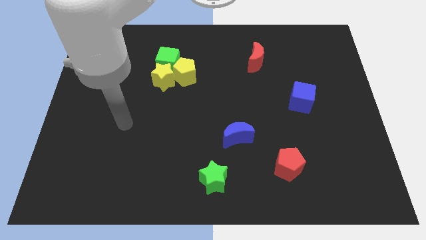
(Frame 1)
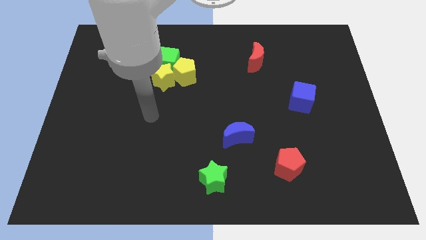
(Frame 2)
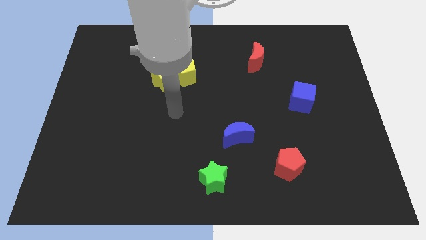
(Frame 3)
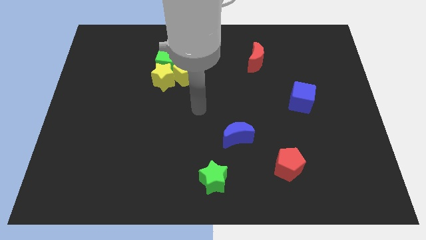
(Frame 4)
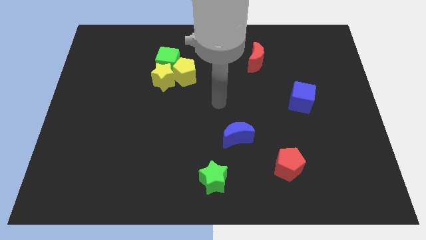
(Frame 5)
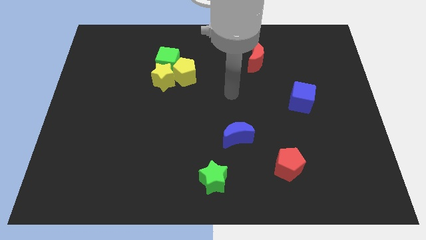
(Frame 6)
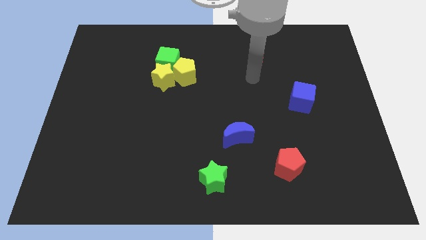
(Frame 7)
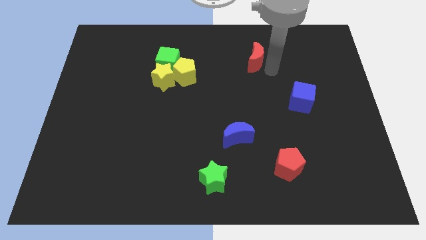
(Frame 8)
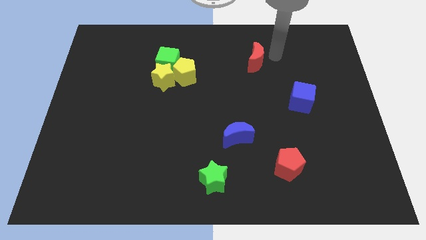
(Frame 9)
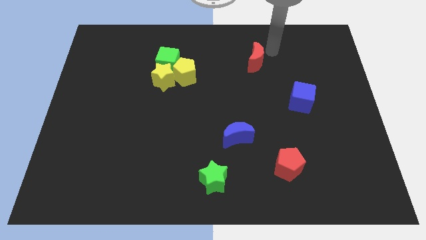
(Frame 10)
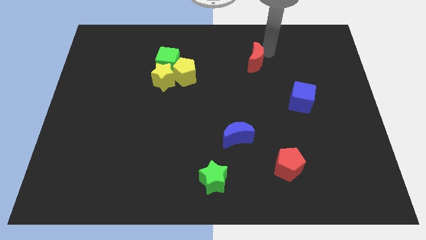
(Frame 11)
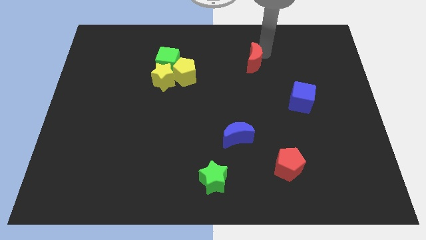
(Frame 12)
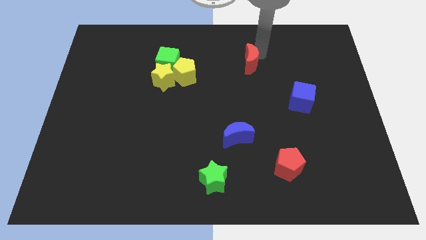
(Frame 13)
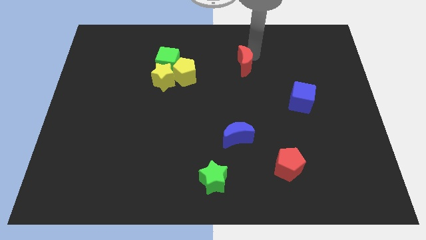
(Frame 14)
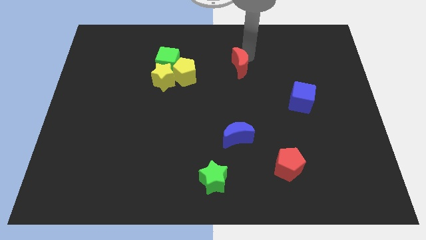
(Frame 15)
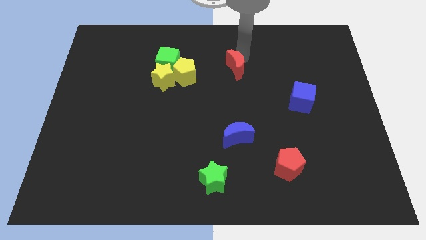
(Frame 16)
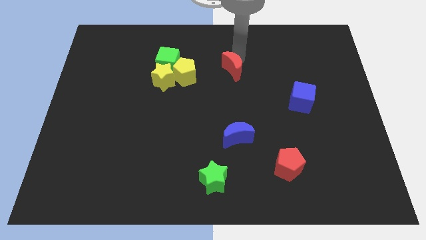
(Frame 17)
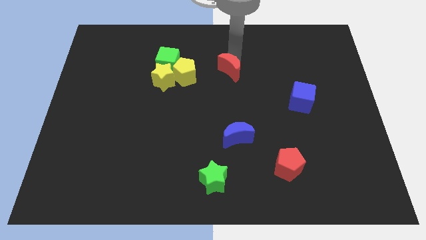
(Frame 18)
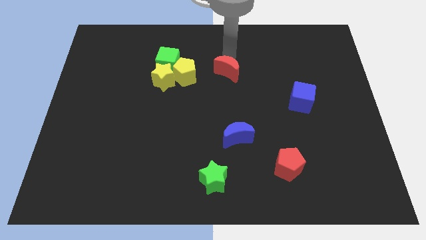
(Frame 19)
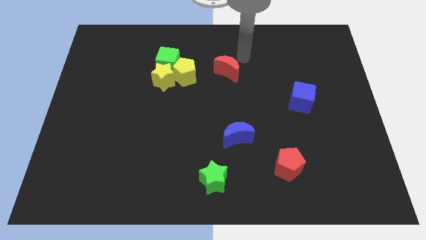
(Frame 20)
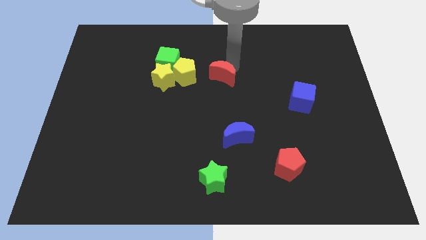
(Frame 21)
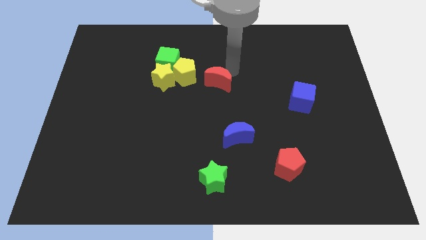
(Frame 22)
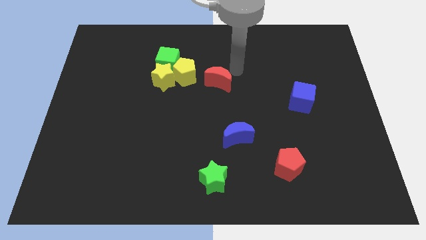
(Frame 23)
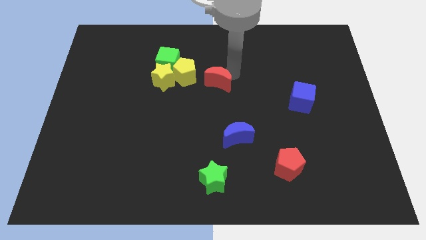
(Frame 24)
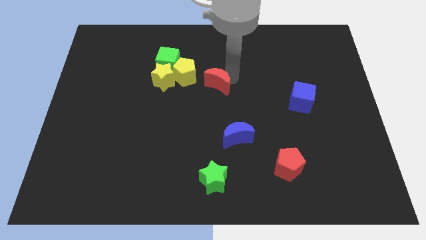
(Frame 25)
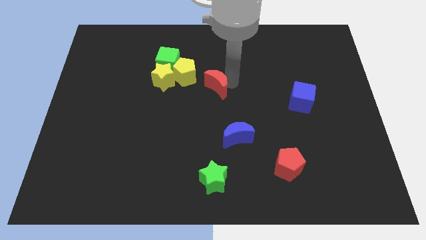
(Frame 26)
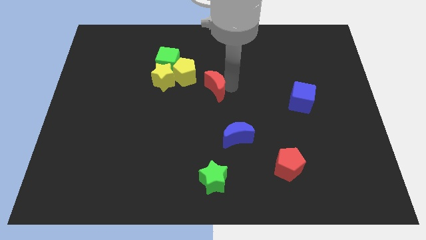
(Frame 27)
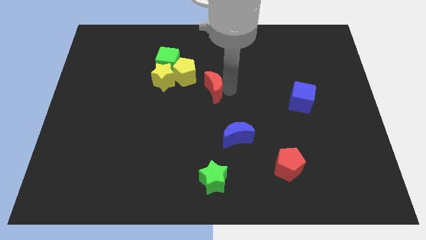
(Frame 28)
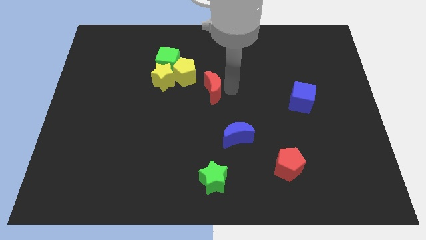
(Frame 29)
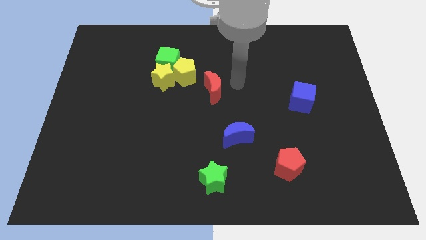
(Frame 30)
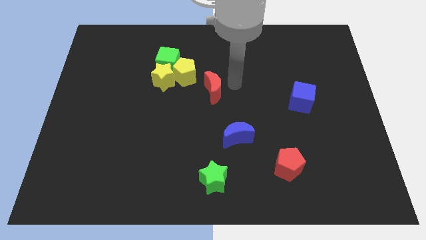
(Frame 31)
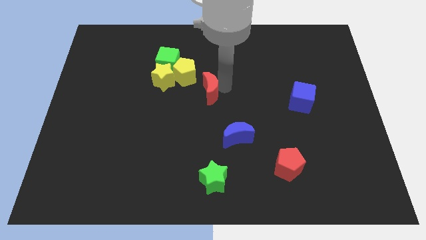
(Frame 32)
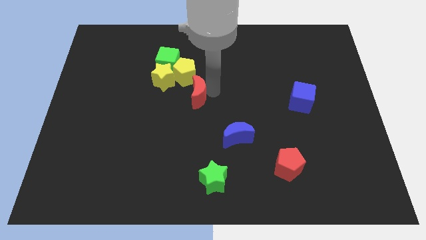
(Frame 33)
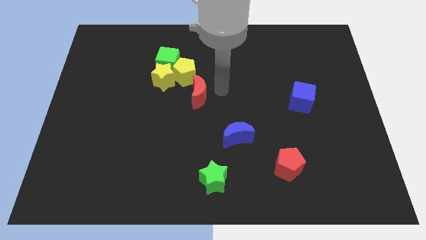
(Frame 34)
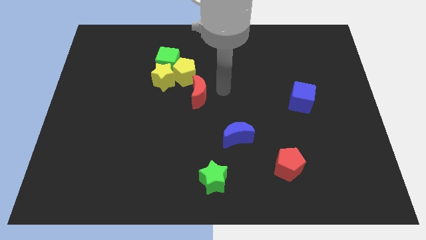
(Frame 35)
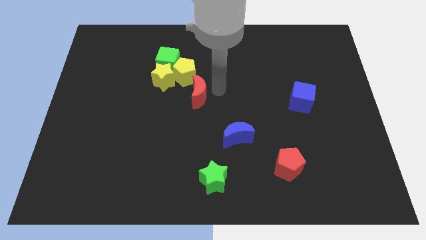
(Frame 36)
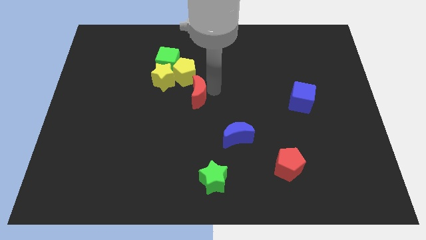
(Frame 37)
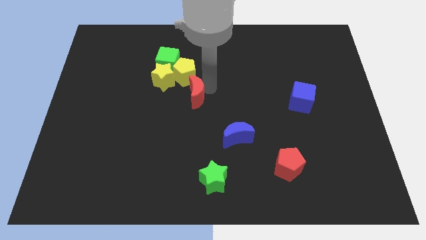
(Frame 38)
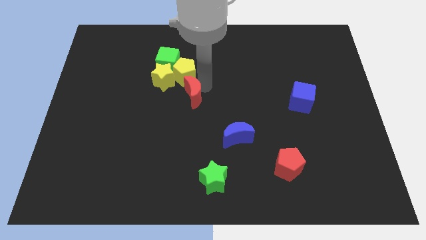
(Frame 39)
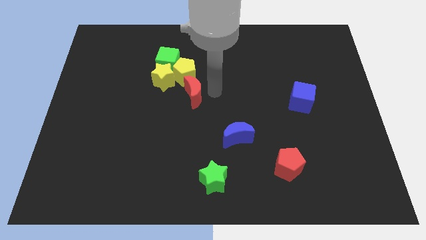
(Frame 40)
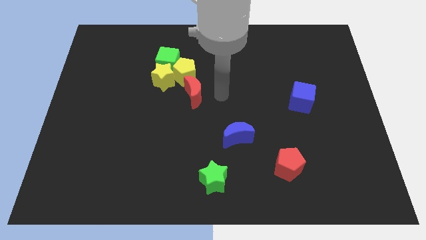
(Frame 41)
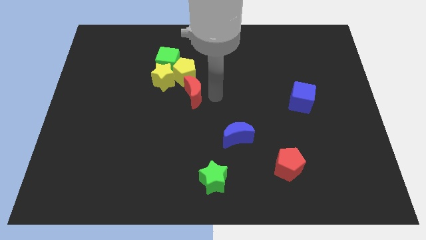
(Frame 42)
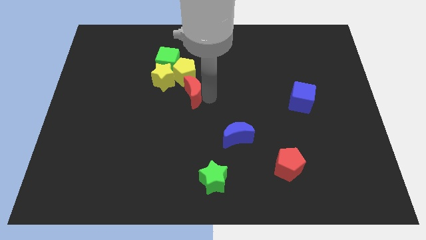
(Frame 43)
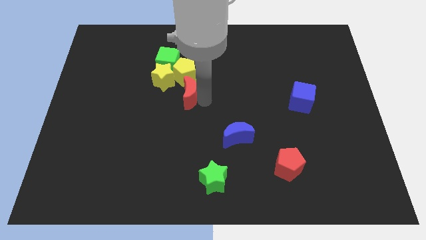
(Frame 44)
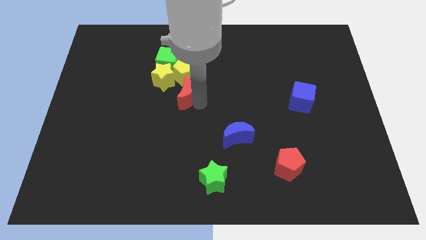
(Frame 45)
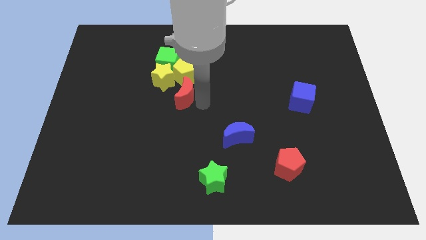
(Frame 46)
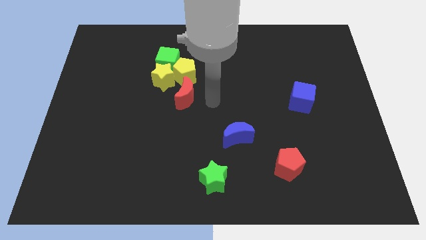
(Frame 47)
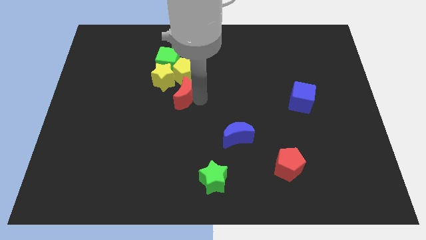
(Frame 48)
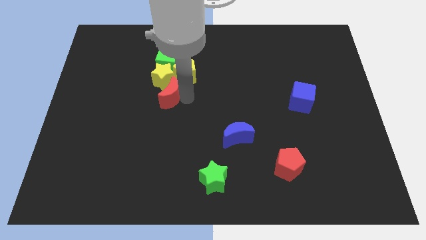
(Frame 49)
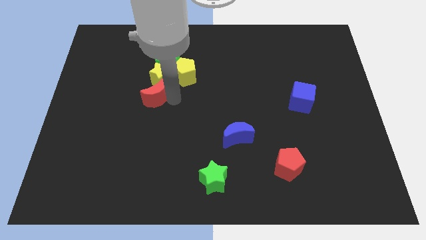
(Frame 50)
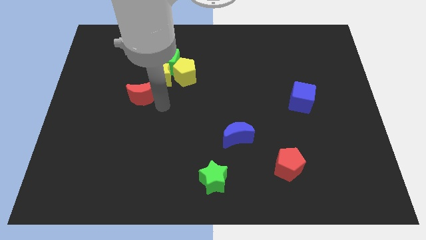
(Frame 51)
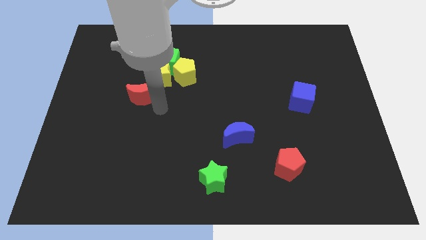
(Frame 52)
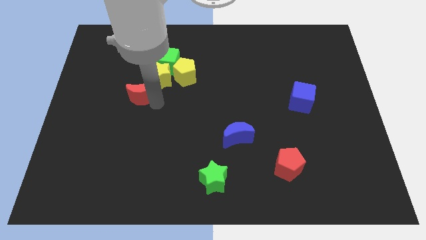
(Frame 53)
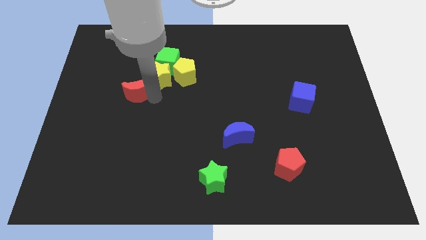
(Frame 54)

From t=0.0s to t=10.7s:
slide the red moon left of the yellow star

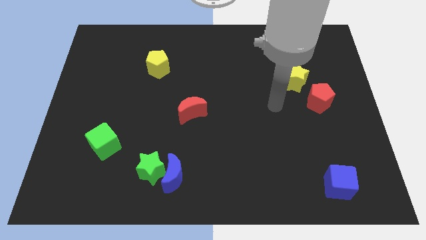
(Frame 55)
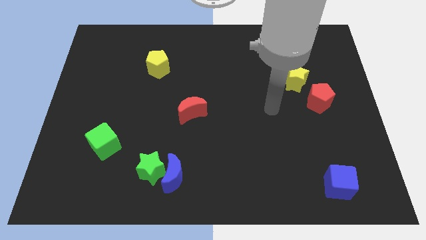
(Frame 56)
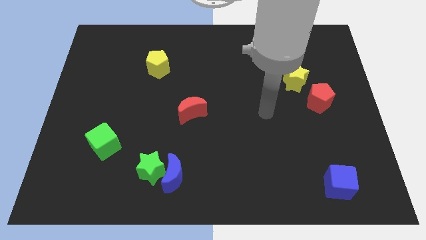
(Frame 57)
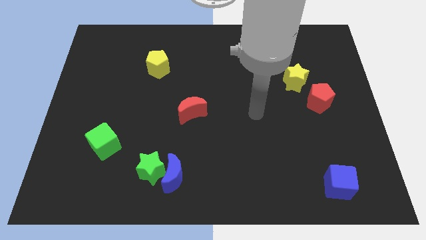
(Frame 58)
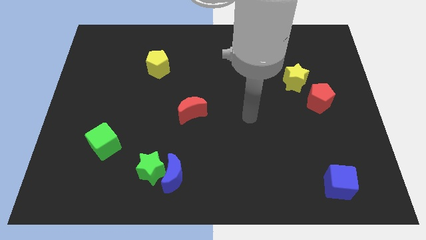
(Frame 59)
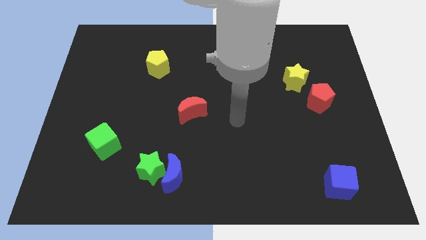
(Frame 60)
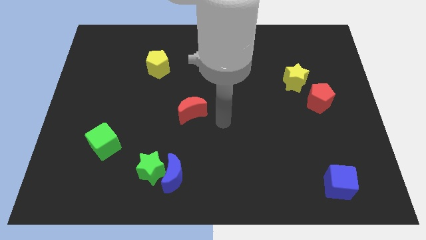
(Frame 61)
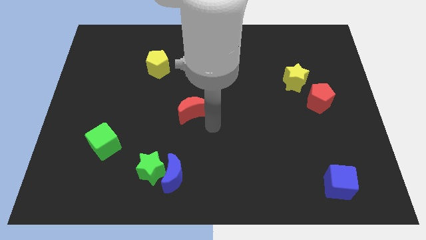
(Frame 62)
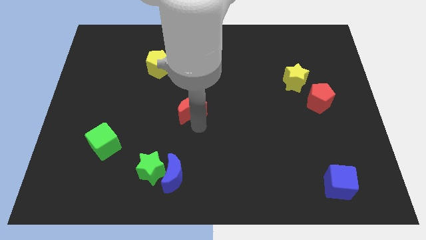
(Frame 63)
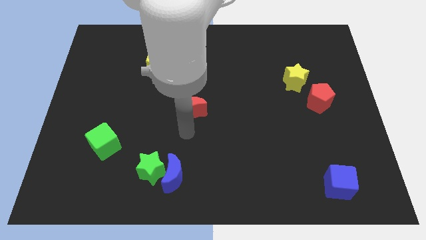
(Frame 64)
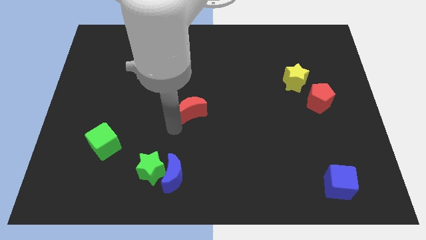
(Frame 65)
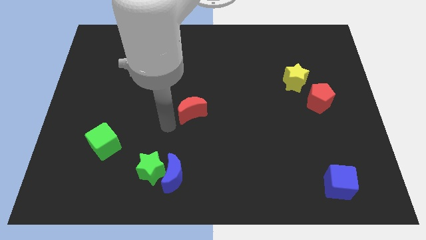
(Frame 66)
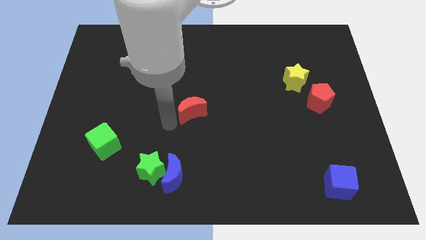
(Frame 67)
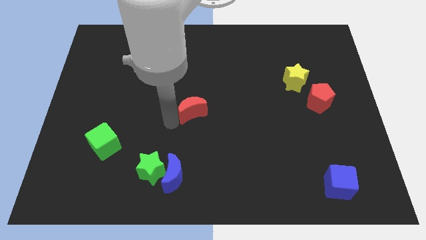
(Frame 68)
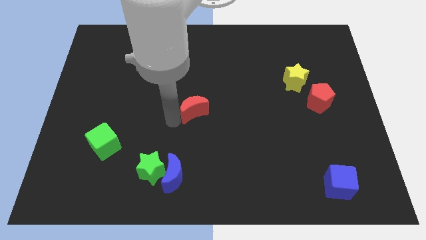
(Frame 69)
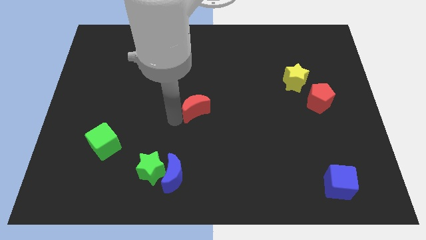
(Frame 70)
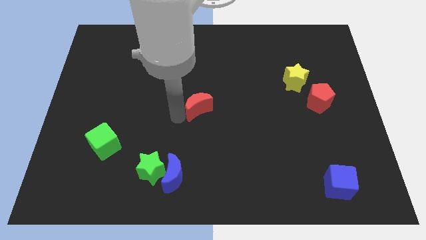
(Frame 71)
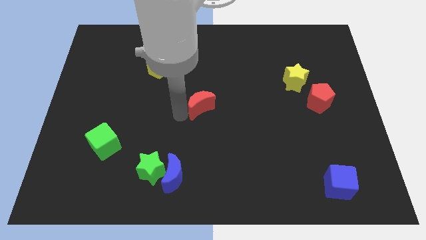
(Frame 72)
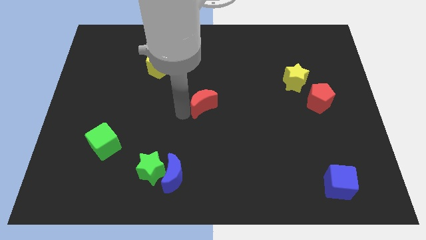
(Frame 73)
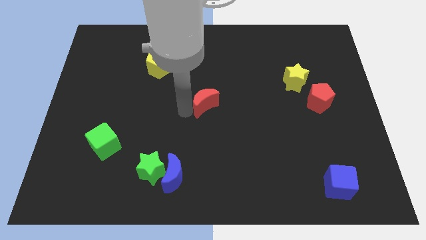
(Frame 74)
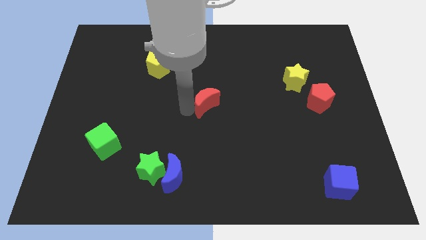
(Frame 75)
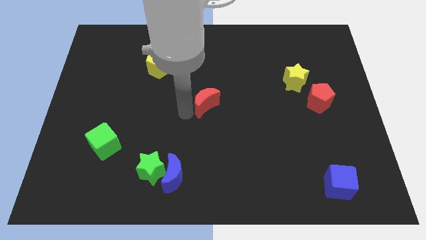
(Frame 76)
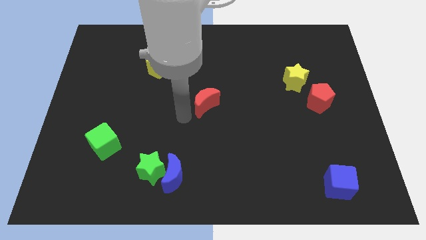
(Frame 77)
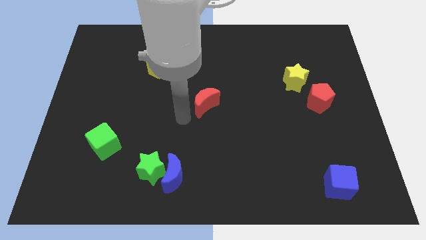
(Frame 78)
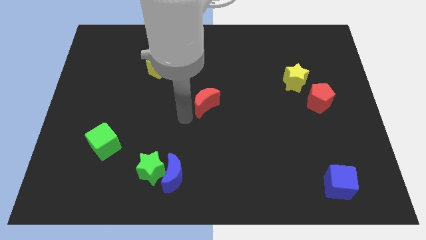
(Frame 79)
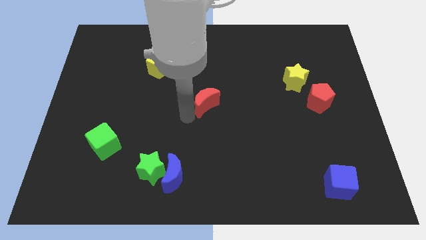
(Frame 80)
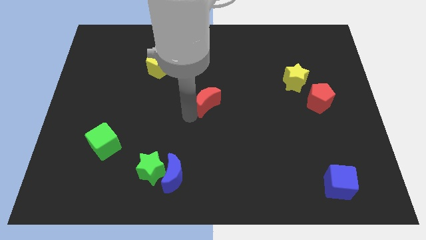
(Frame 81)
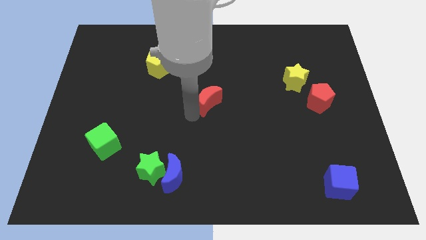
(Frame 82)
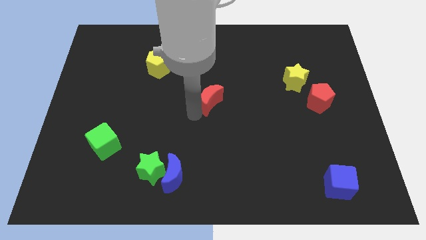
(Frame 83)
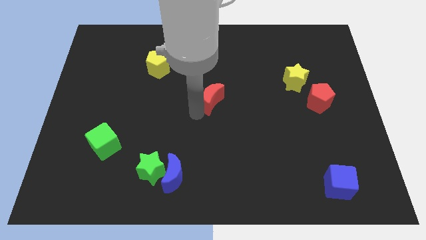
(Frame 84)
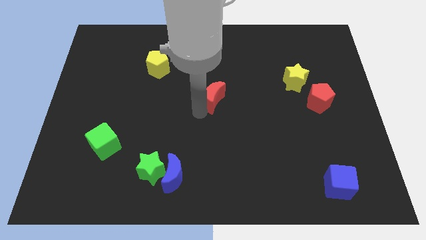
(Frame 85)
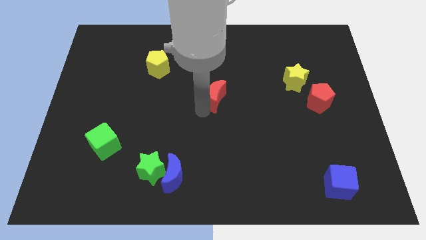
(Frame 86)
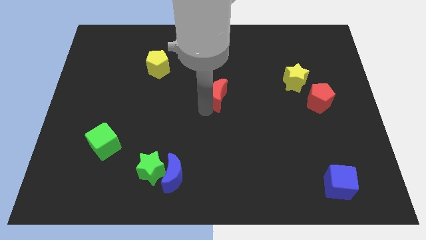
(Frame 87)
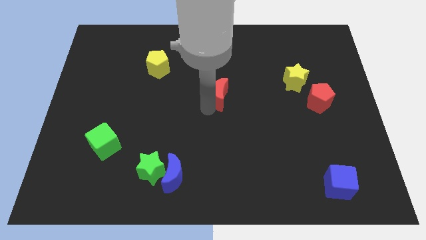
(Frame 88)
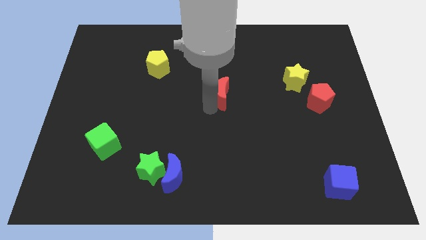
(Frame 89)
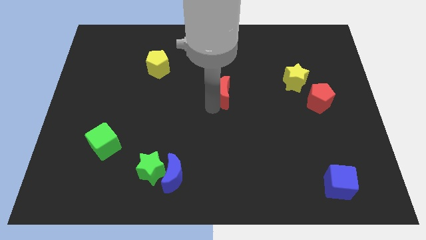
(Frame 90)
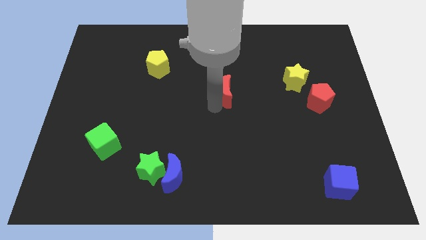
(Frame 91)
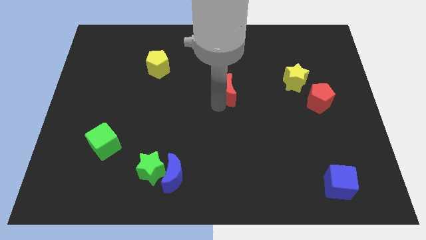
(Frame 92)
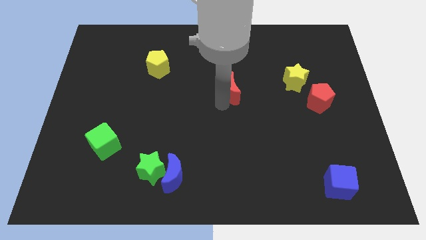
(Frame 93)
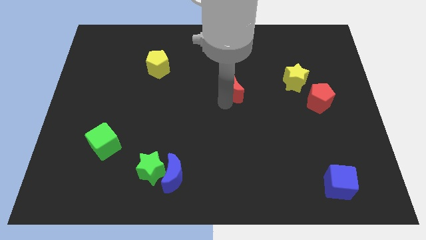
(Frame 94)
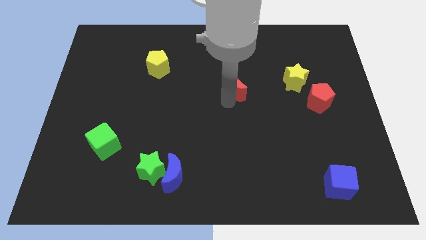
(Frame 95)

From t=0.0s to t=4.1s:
push the red moon to the left side of the yellow star
